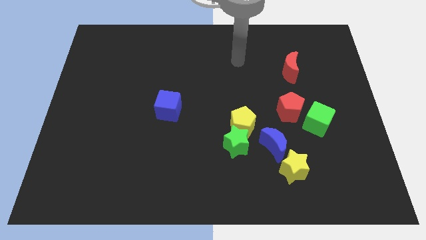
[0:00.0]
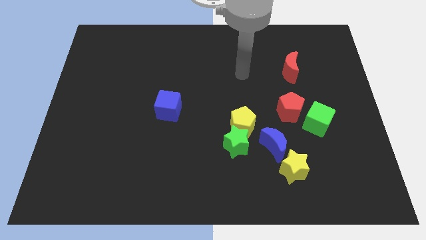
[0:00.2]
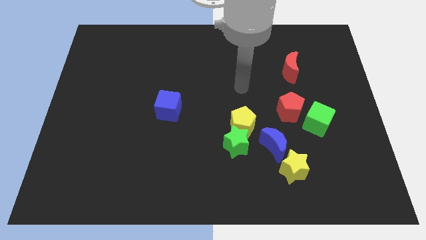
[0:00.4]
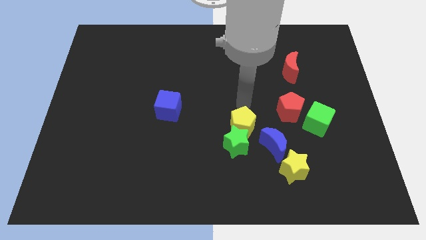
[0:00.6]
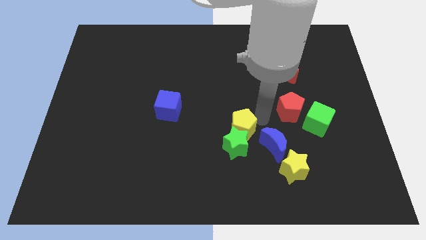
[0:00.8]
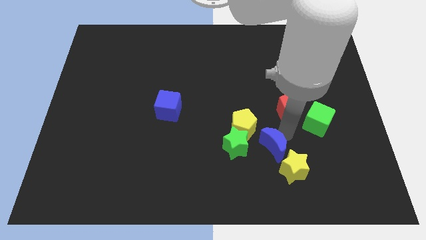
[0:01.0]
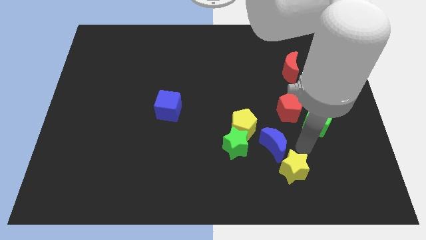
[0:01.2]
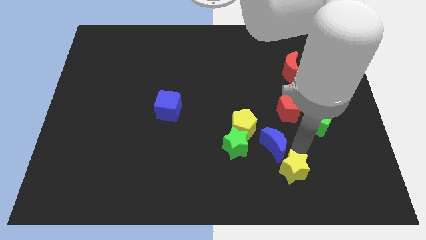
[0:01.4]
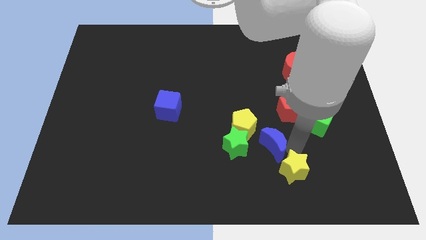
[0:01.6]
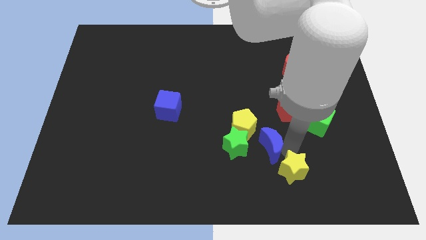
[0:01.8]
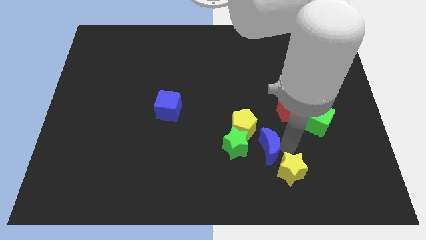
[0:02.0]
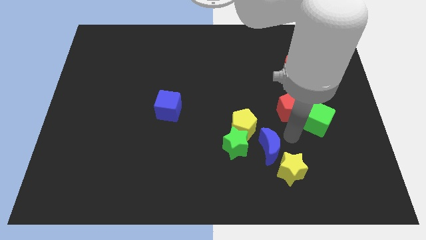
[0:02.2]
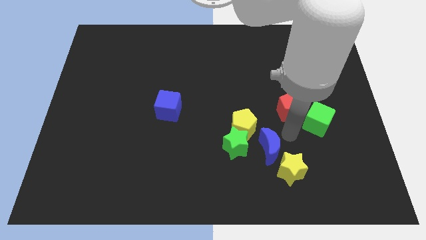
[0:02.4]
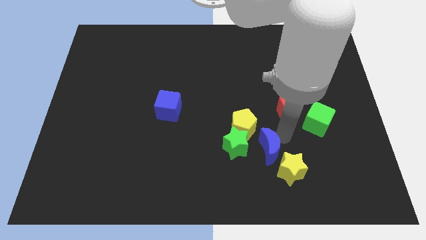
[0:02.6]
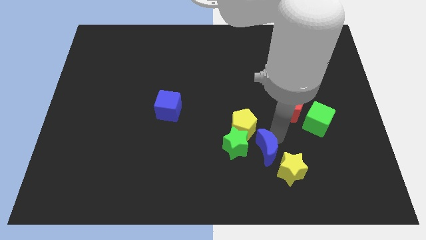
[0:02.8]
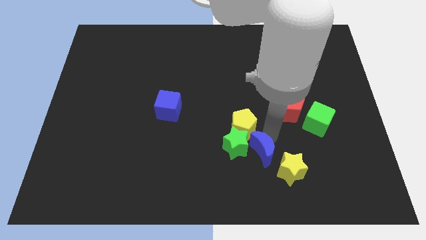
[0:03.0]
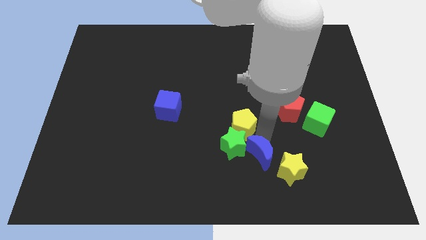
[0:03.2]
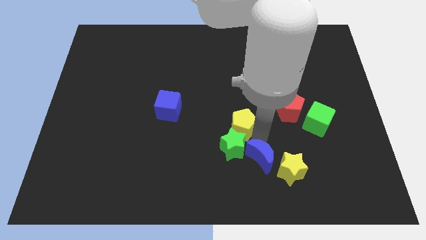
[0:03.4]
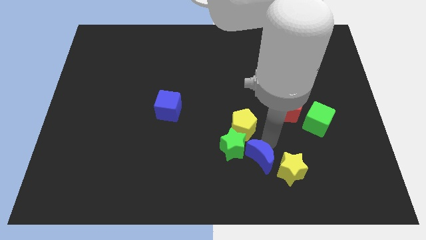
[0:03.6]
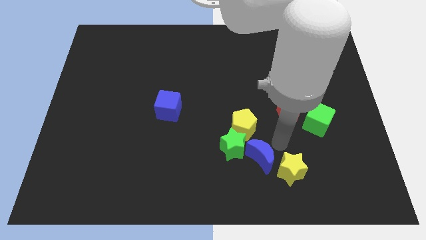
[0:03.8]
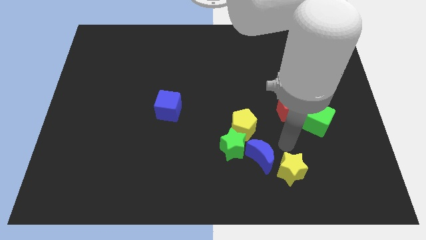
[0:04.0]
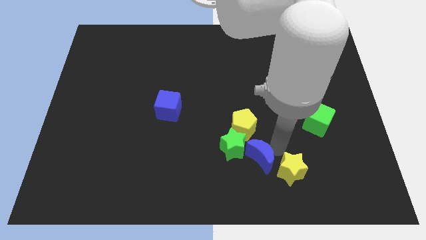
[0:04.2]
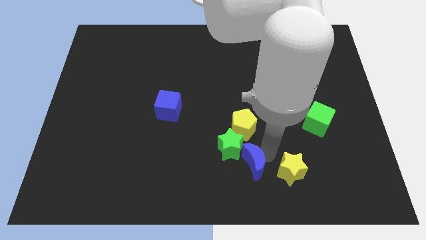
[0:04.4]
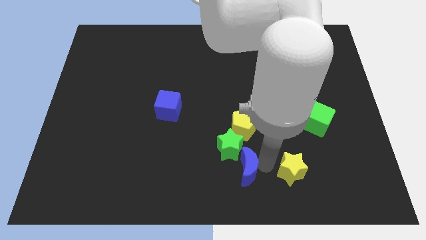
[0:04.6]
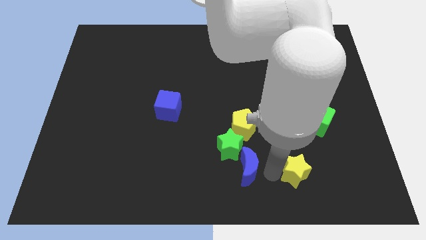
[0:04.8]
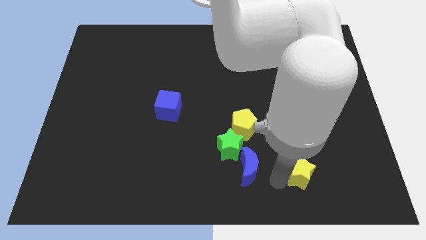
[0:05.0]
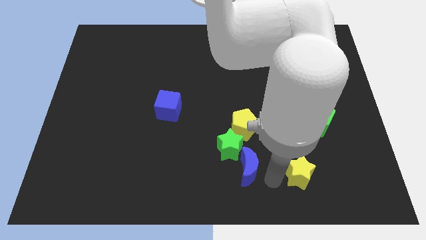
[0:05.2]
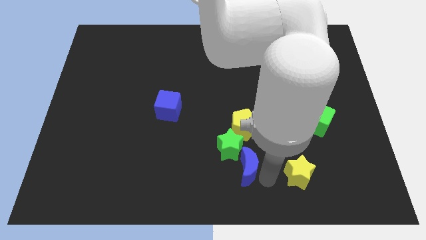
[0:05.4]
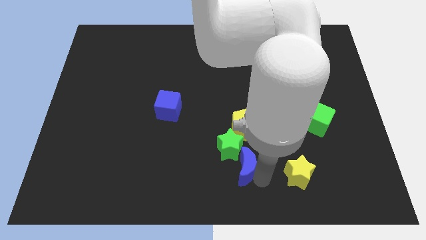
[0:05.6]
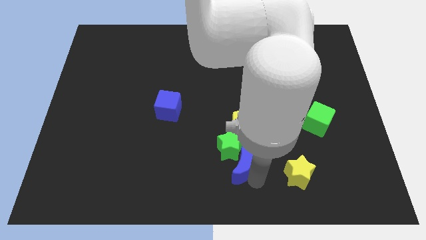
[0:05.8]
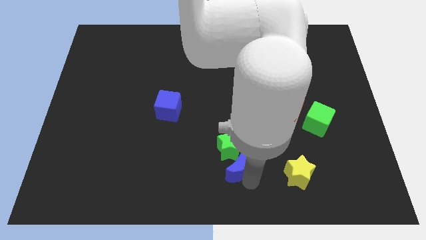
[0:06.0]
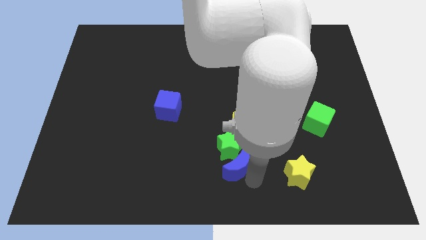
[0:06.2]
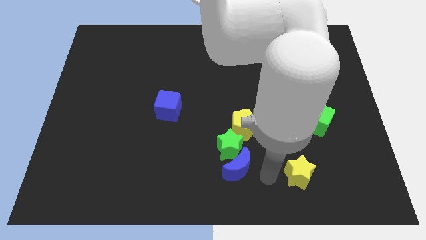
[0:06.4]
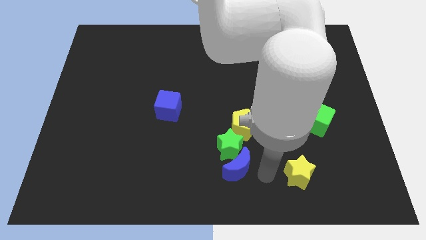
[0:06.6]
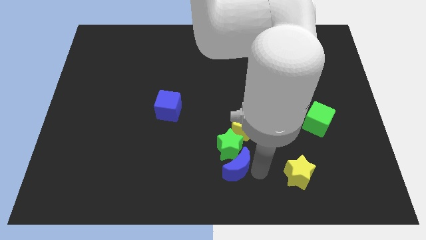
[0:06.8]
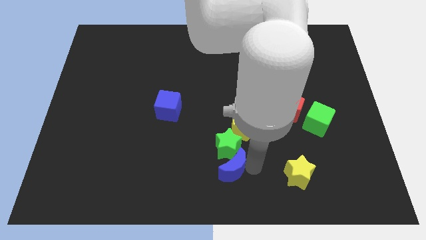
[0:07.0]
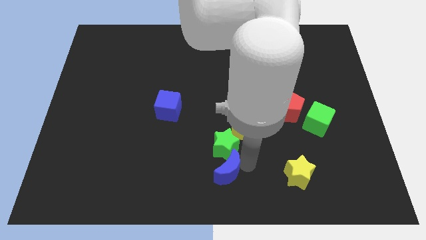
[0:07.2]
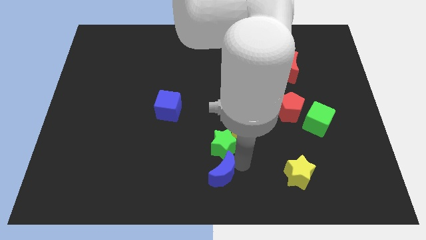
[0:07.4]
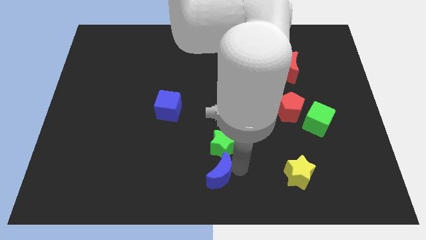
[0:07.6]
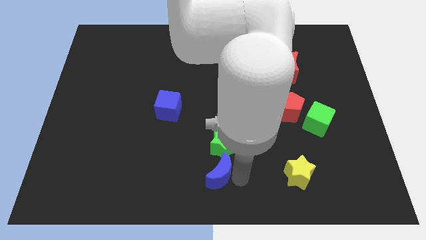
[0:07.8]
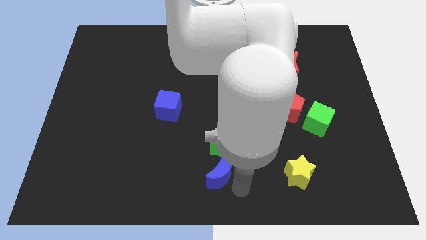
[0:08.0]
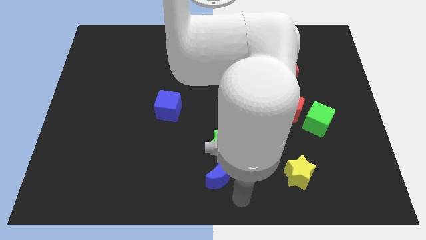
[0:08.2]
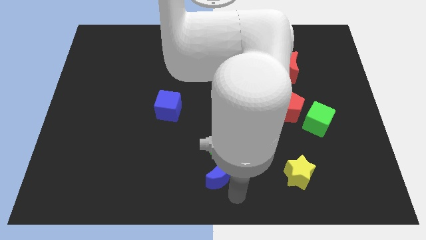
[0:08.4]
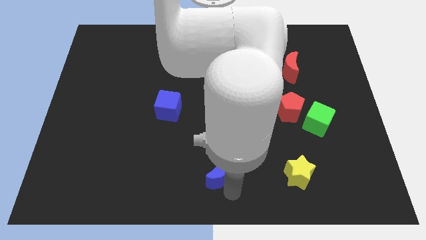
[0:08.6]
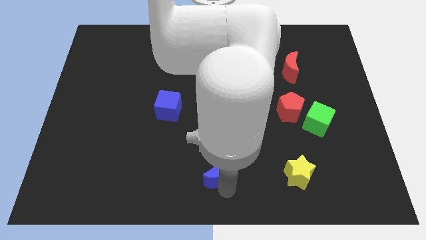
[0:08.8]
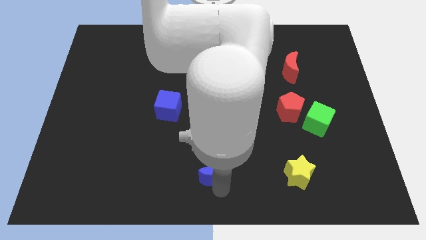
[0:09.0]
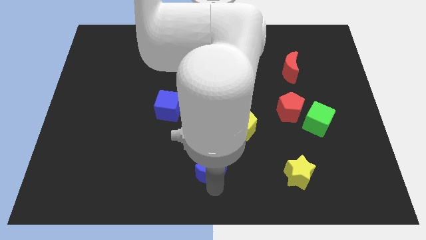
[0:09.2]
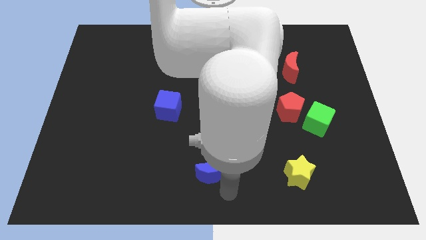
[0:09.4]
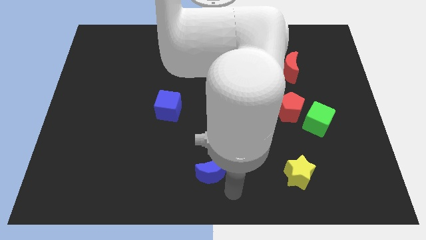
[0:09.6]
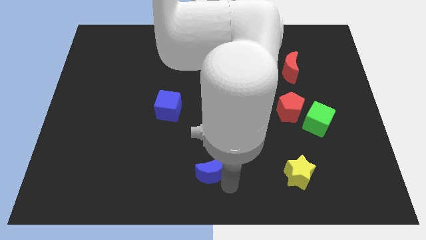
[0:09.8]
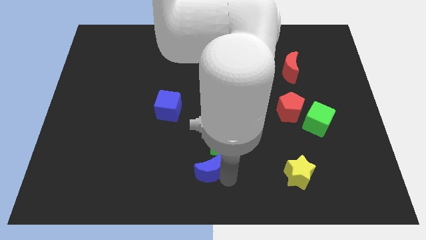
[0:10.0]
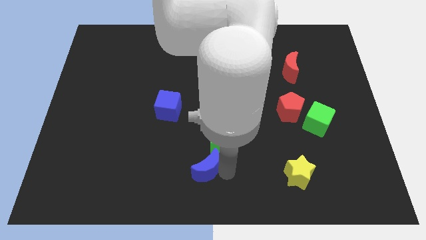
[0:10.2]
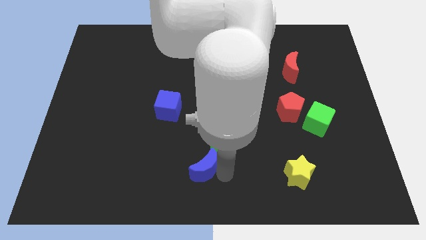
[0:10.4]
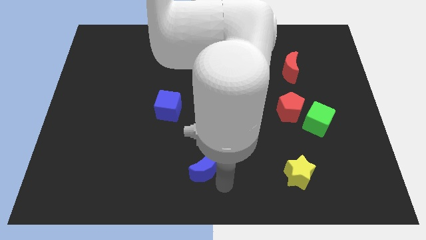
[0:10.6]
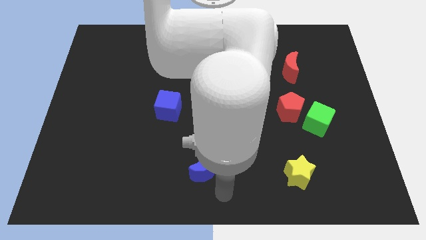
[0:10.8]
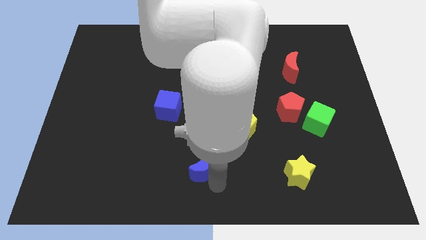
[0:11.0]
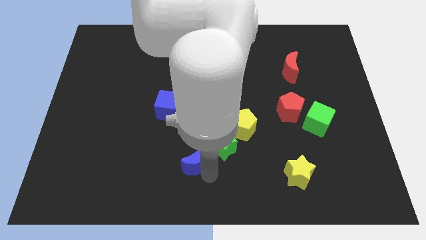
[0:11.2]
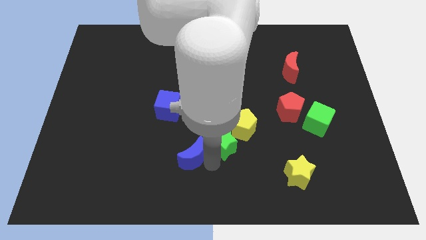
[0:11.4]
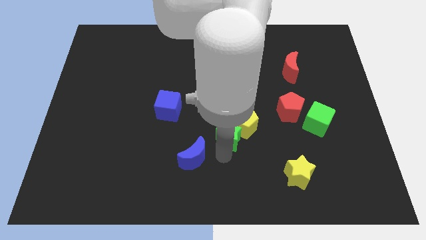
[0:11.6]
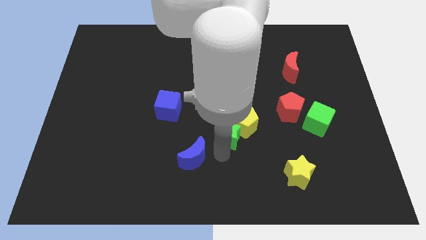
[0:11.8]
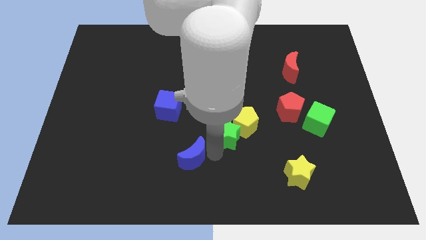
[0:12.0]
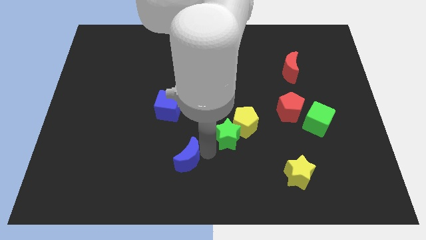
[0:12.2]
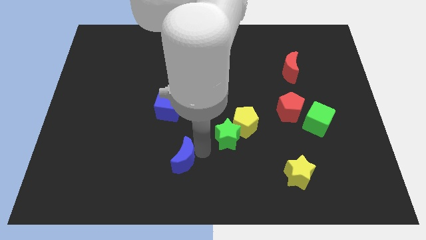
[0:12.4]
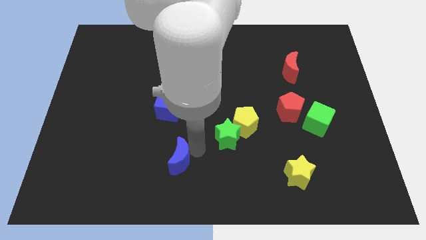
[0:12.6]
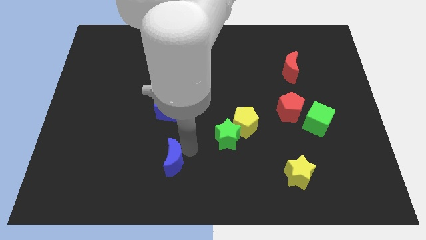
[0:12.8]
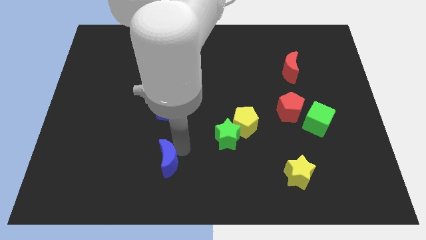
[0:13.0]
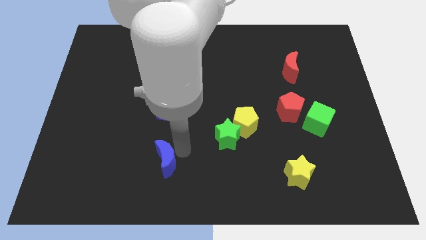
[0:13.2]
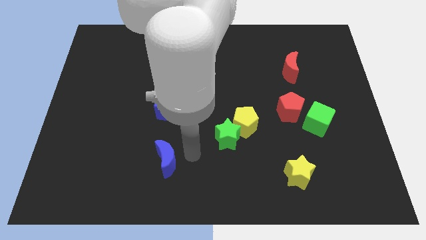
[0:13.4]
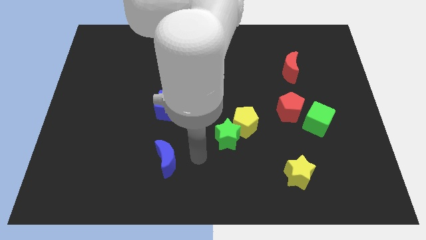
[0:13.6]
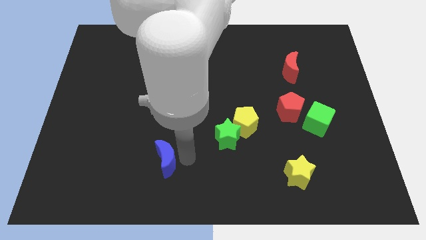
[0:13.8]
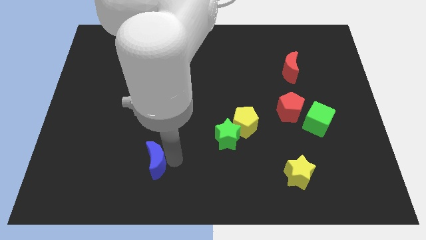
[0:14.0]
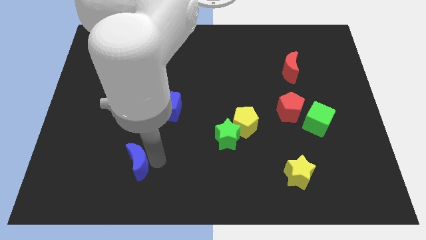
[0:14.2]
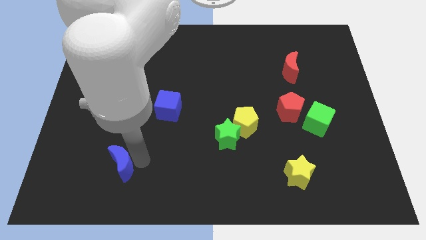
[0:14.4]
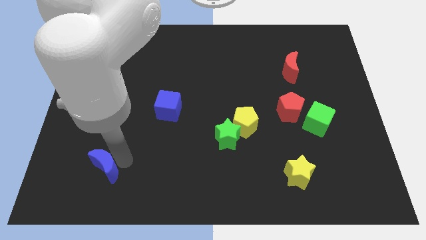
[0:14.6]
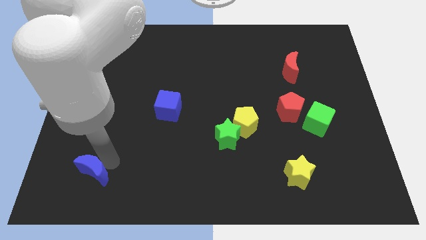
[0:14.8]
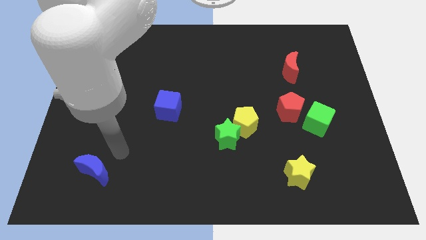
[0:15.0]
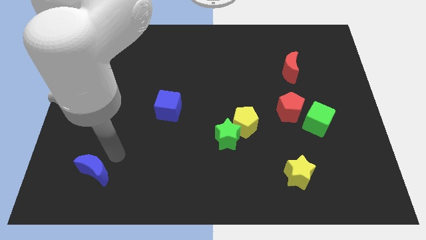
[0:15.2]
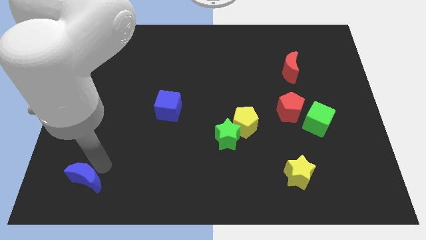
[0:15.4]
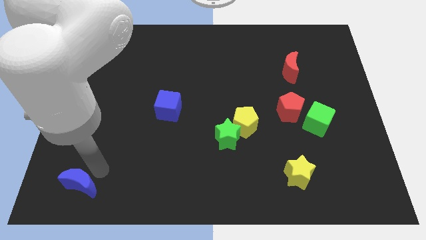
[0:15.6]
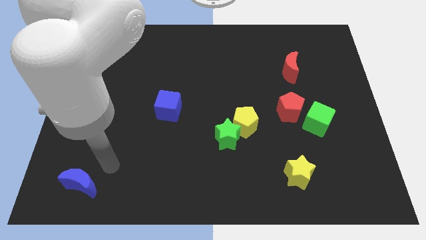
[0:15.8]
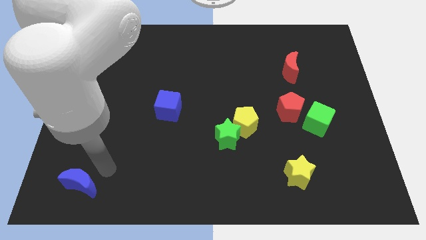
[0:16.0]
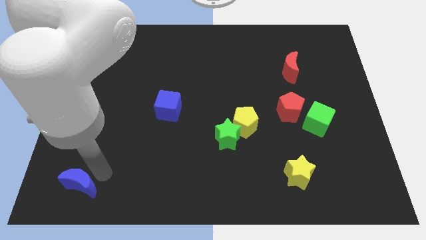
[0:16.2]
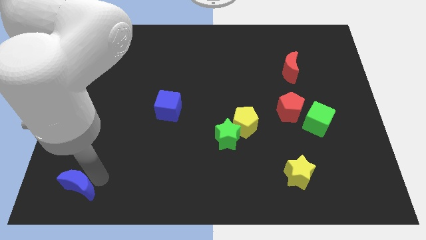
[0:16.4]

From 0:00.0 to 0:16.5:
put the blue moon to the lower left corner
